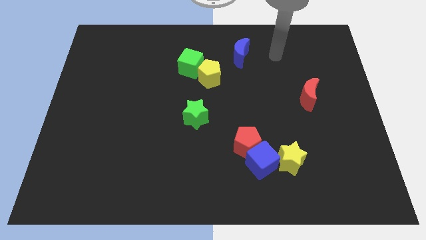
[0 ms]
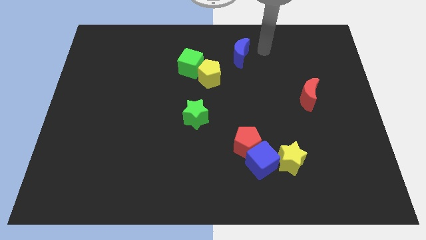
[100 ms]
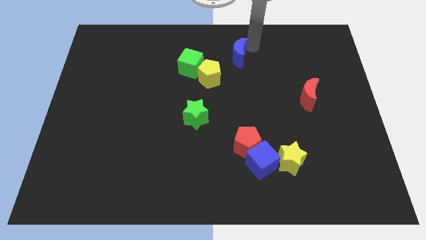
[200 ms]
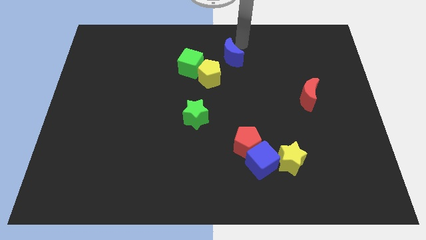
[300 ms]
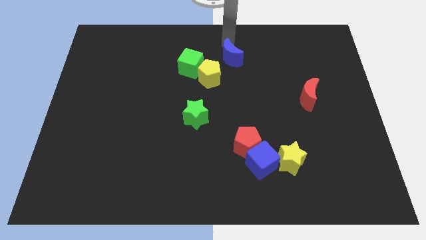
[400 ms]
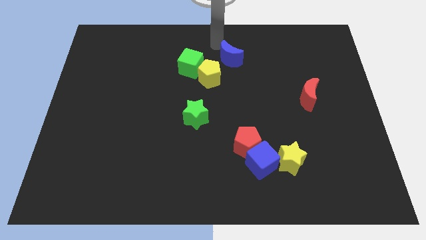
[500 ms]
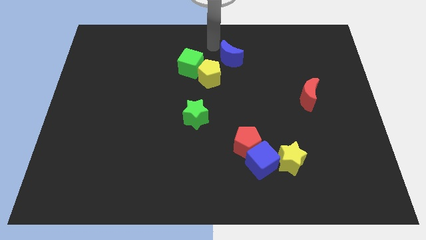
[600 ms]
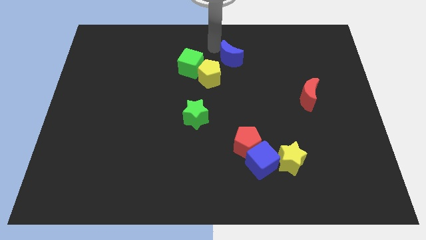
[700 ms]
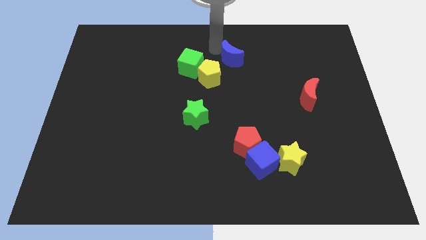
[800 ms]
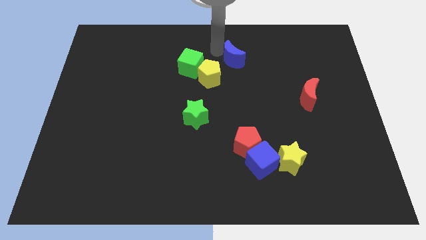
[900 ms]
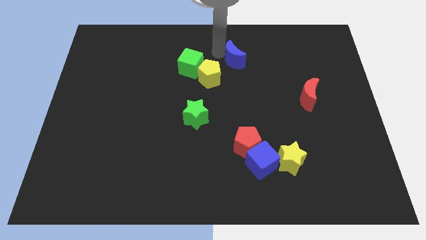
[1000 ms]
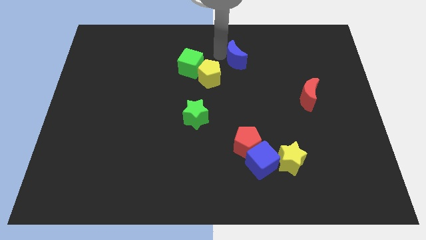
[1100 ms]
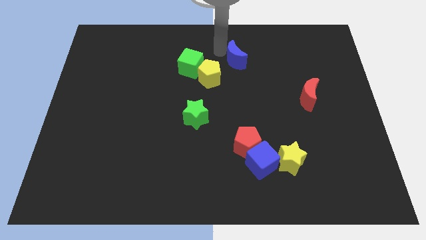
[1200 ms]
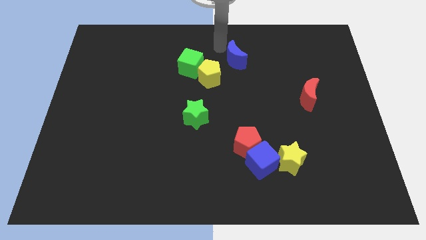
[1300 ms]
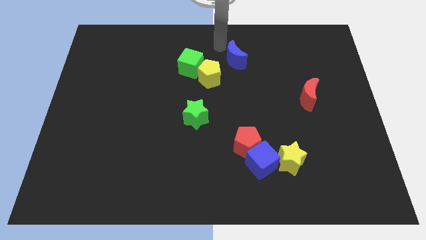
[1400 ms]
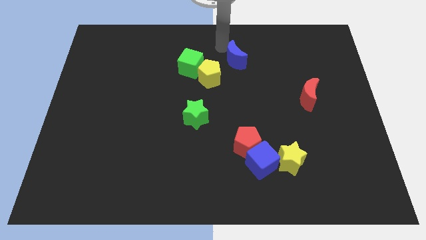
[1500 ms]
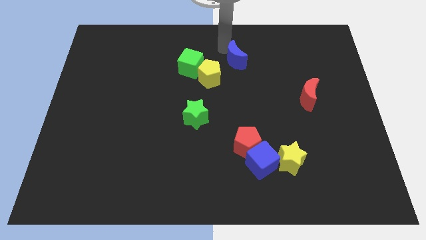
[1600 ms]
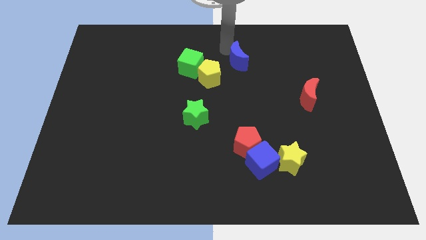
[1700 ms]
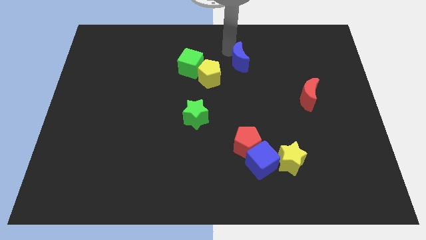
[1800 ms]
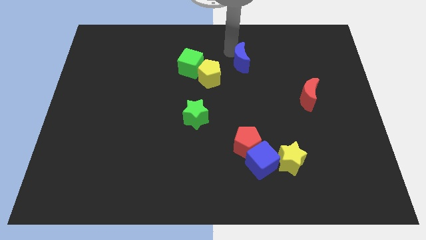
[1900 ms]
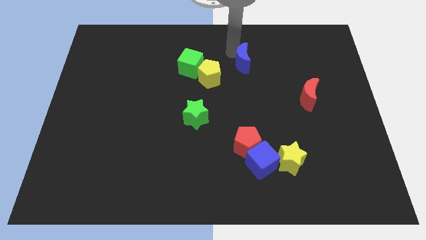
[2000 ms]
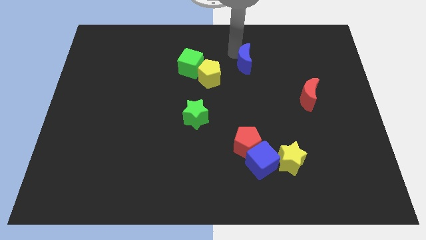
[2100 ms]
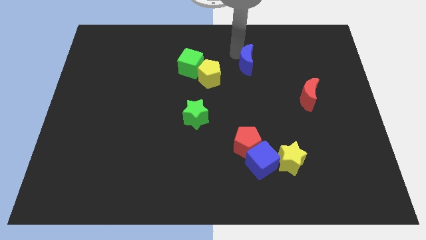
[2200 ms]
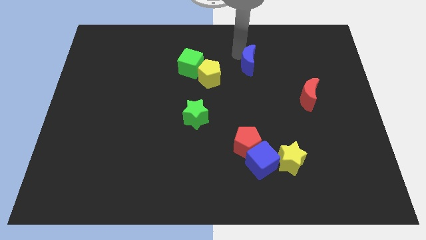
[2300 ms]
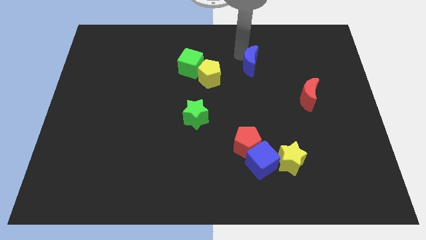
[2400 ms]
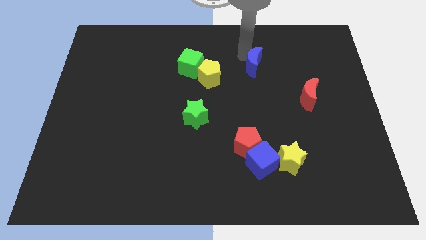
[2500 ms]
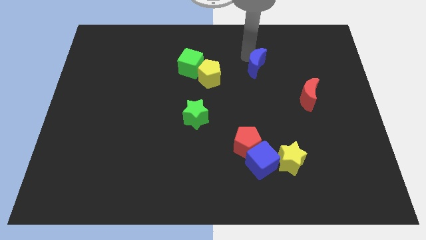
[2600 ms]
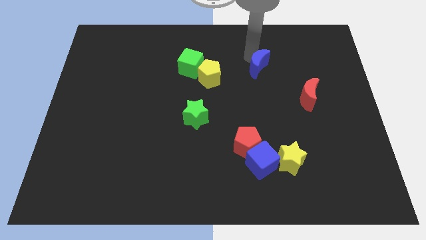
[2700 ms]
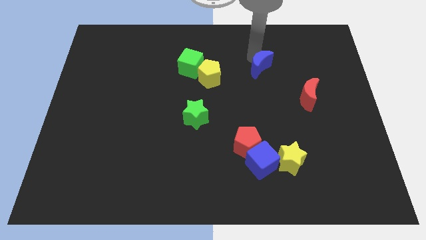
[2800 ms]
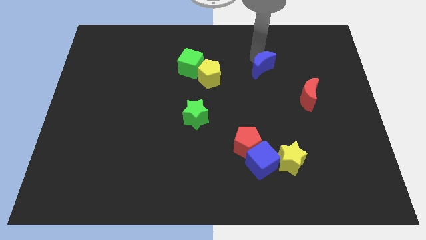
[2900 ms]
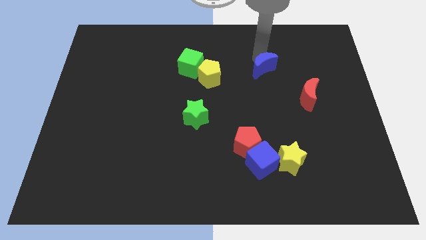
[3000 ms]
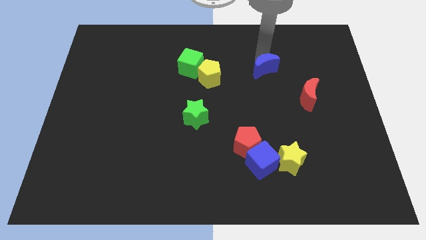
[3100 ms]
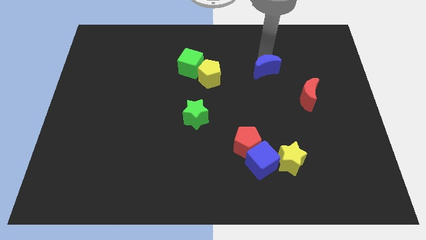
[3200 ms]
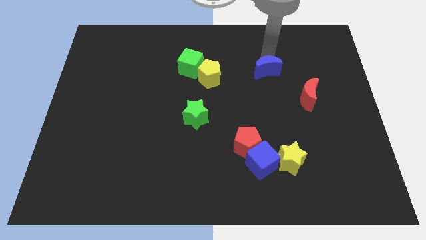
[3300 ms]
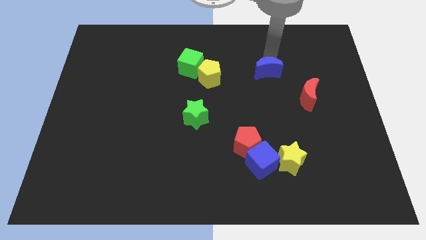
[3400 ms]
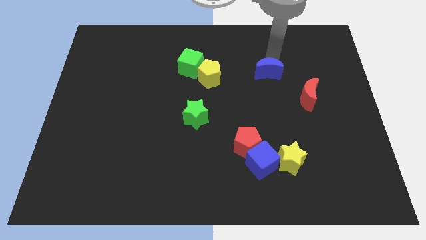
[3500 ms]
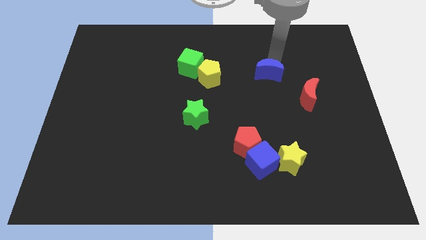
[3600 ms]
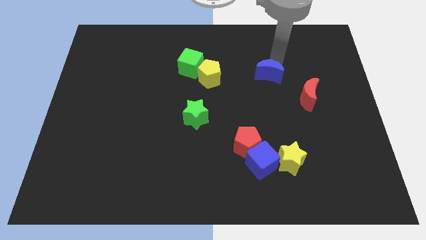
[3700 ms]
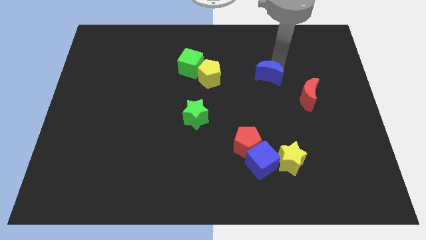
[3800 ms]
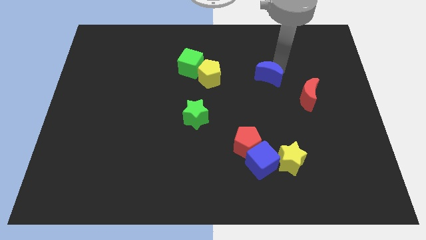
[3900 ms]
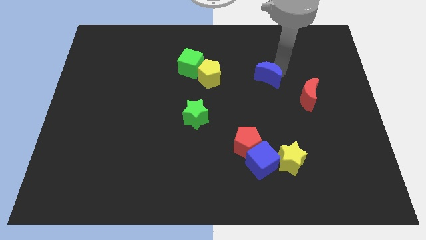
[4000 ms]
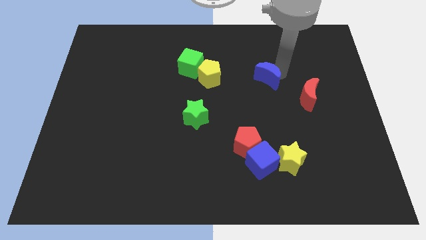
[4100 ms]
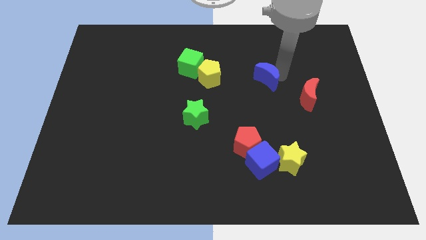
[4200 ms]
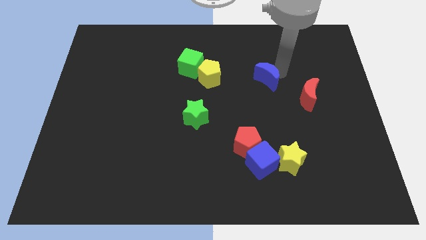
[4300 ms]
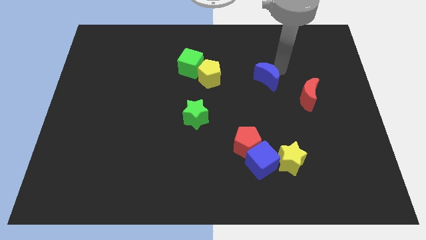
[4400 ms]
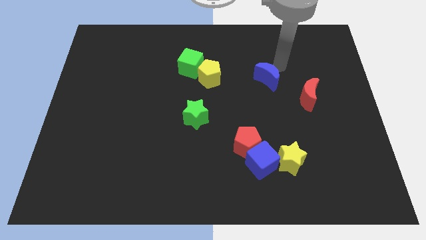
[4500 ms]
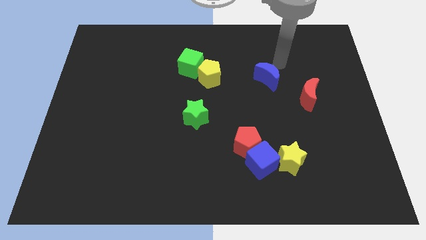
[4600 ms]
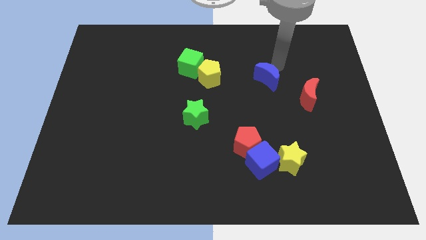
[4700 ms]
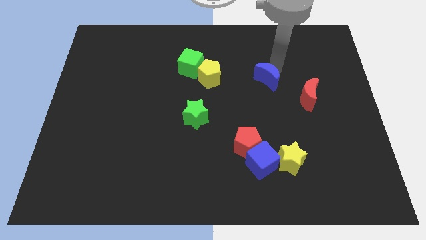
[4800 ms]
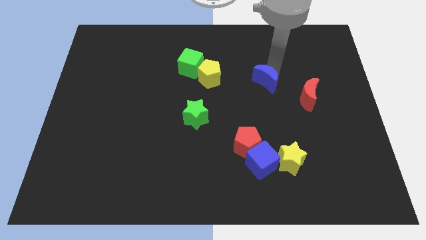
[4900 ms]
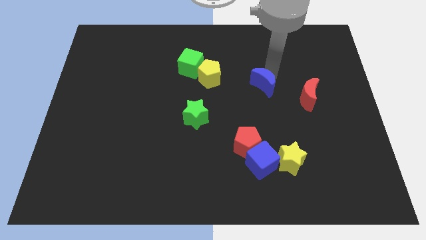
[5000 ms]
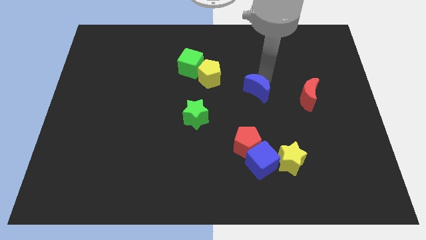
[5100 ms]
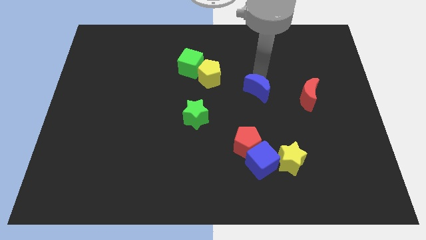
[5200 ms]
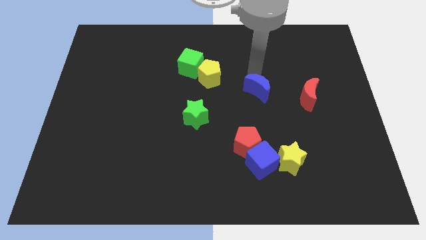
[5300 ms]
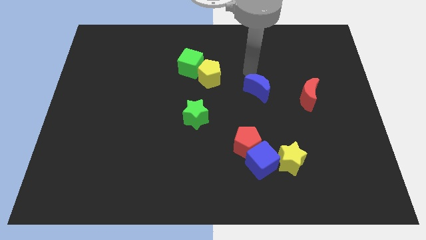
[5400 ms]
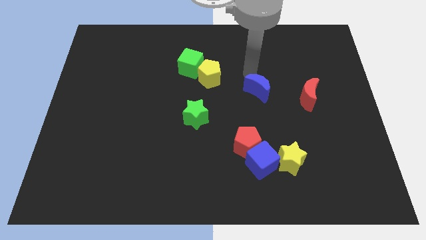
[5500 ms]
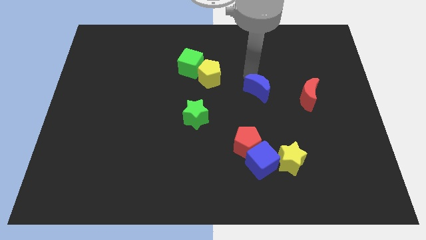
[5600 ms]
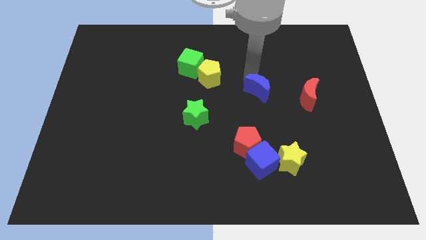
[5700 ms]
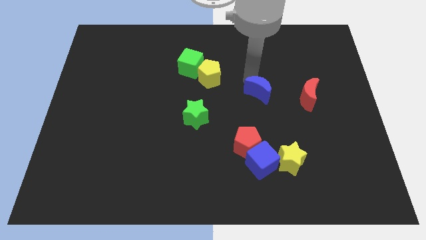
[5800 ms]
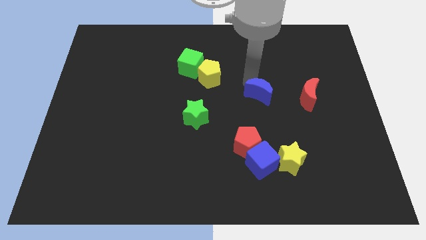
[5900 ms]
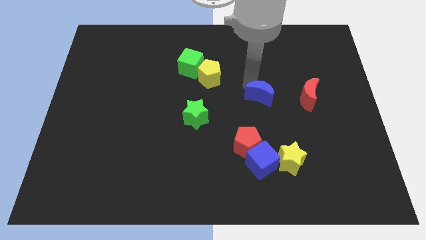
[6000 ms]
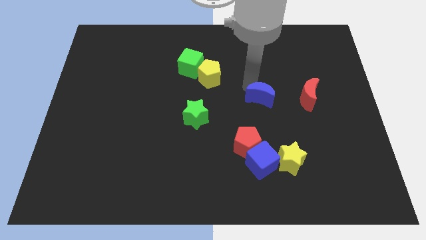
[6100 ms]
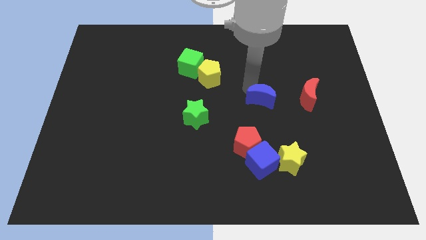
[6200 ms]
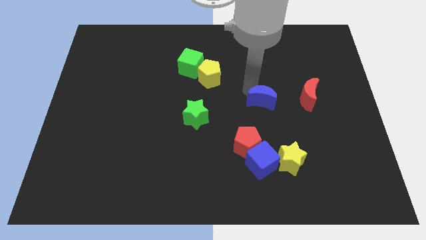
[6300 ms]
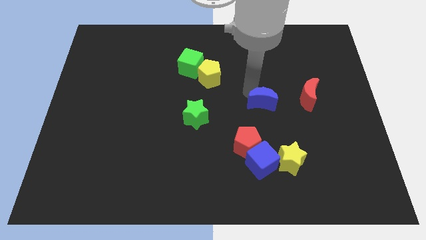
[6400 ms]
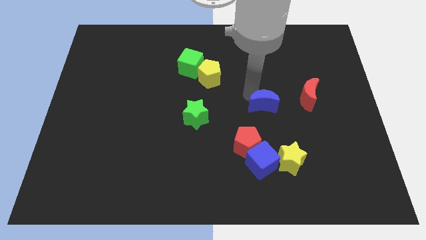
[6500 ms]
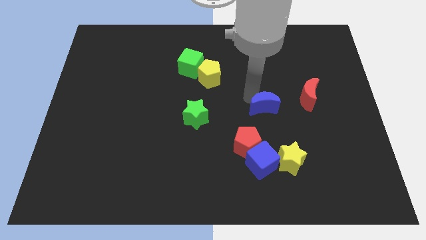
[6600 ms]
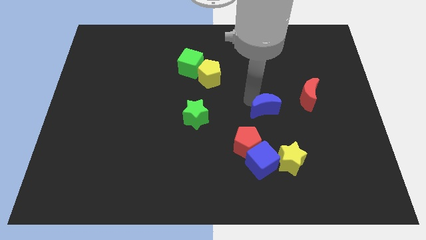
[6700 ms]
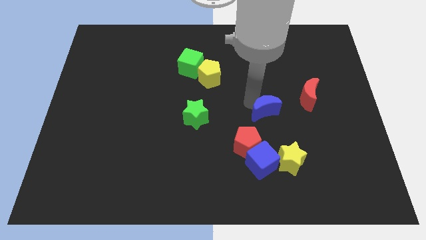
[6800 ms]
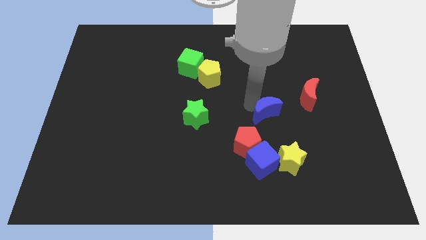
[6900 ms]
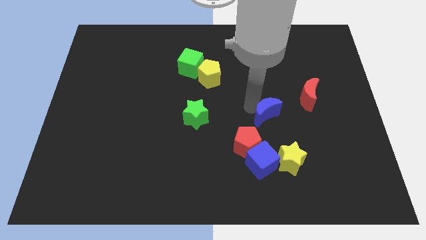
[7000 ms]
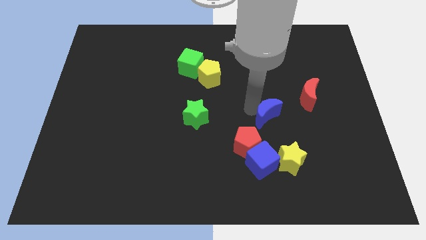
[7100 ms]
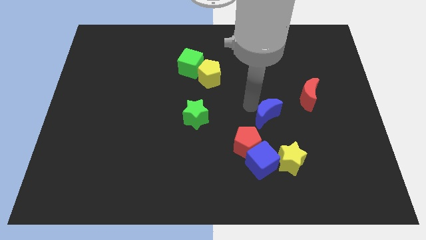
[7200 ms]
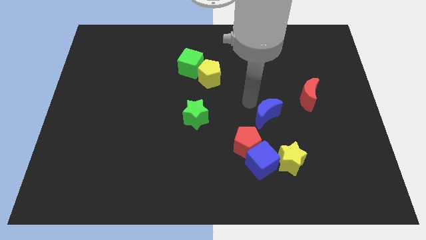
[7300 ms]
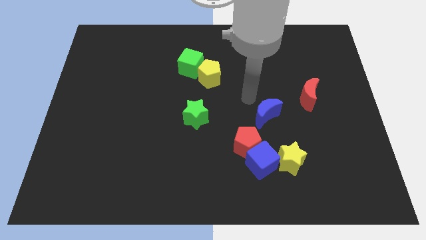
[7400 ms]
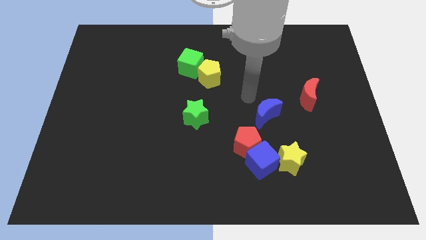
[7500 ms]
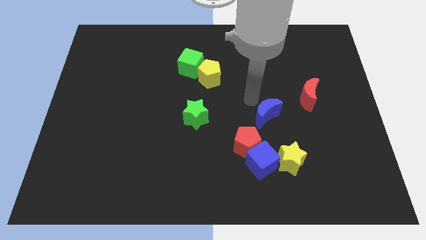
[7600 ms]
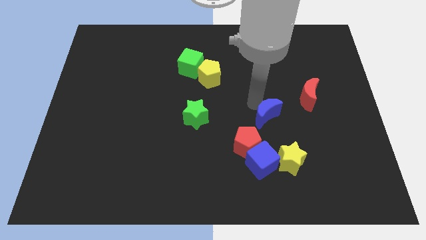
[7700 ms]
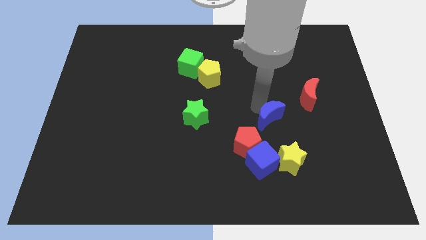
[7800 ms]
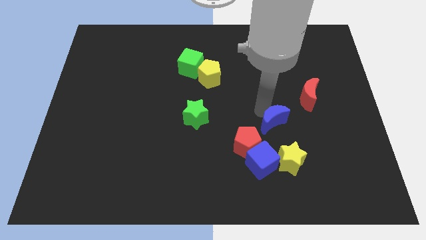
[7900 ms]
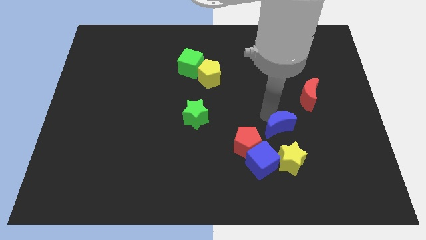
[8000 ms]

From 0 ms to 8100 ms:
push the blue moon to the top right side of the blue cube
